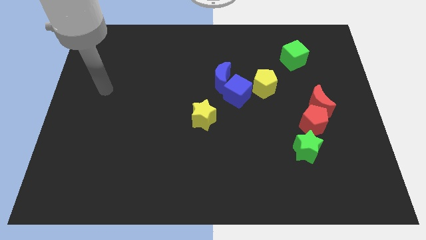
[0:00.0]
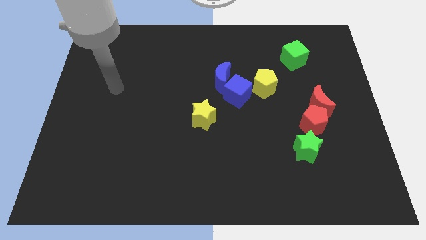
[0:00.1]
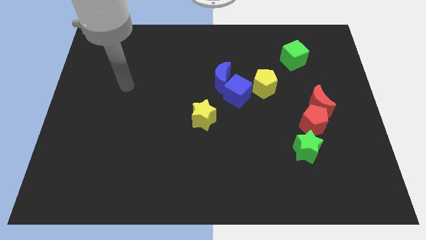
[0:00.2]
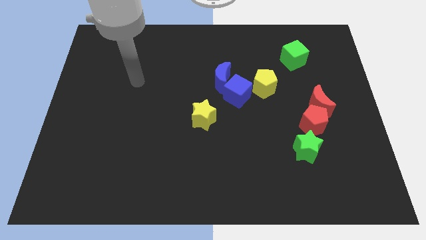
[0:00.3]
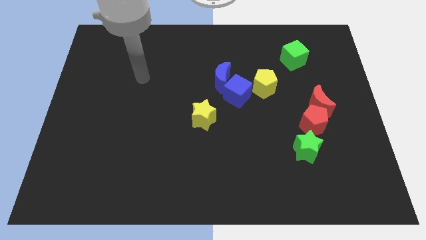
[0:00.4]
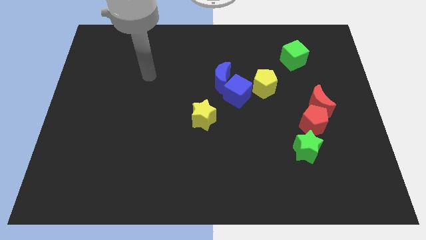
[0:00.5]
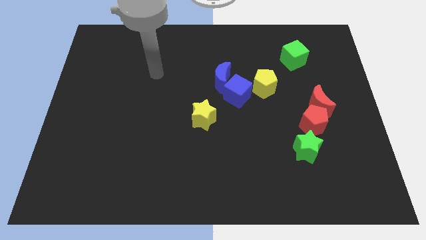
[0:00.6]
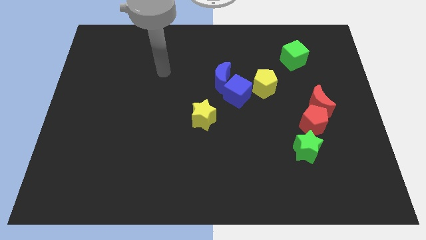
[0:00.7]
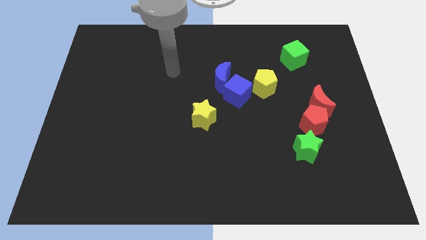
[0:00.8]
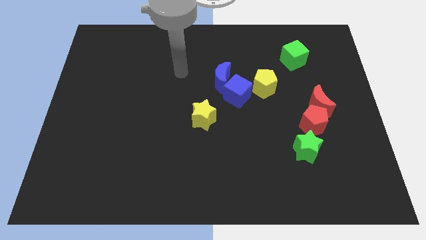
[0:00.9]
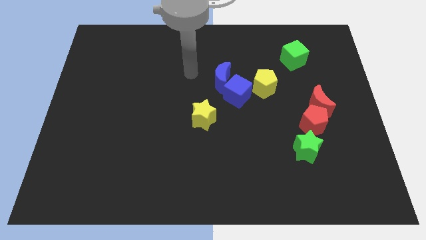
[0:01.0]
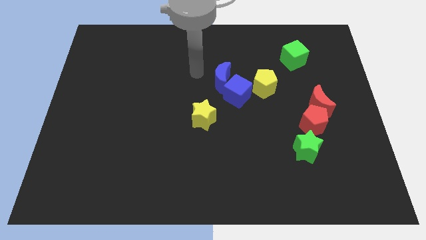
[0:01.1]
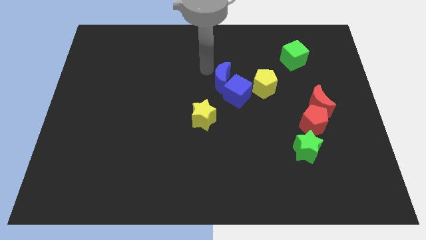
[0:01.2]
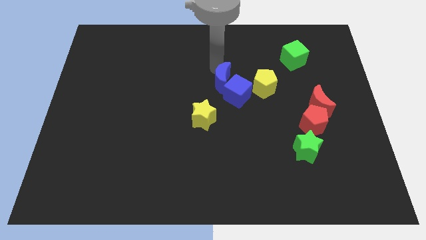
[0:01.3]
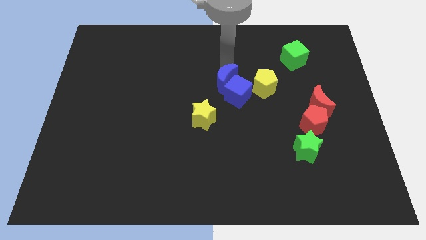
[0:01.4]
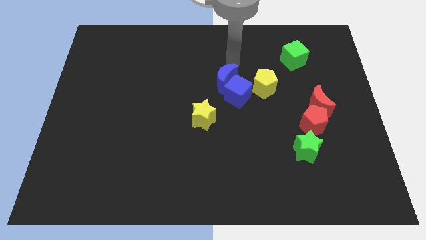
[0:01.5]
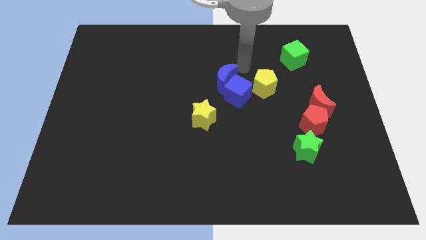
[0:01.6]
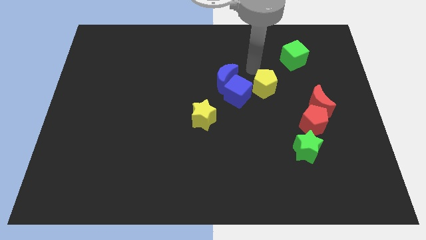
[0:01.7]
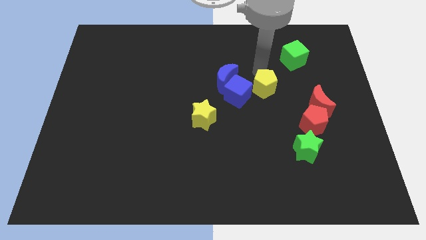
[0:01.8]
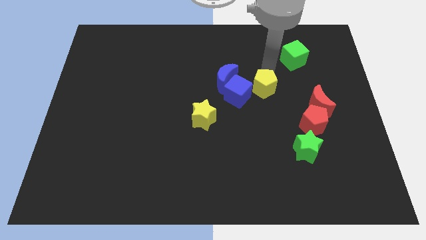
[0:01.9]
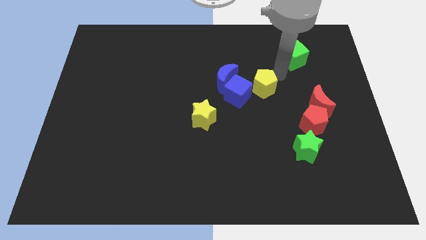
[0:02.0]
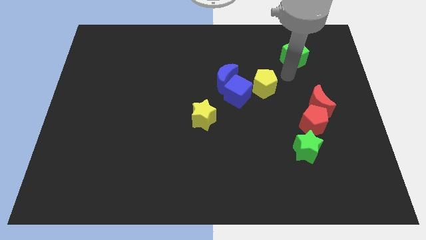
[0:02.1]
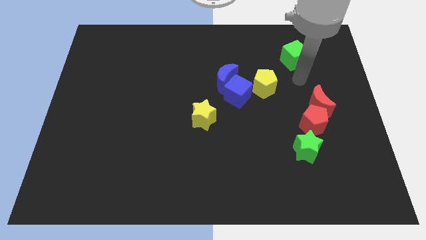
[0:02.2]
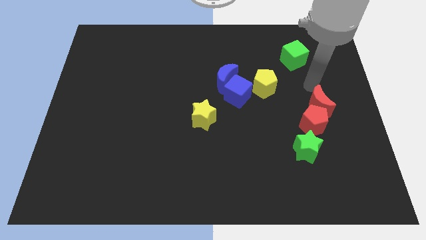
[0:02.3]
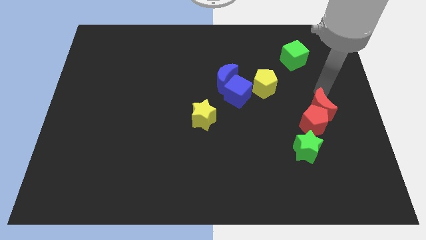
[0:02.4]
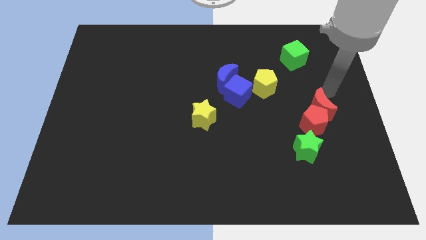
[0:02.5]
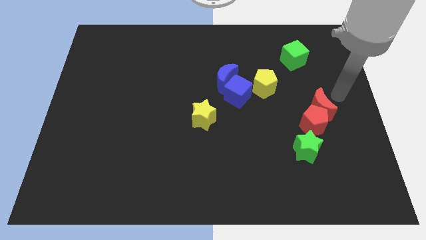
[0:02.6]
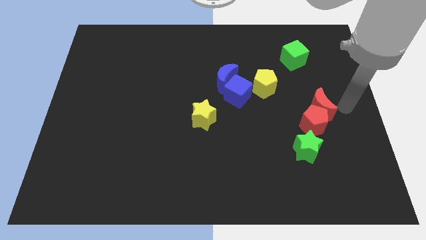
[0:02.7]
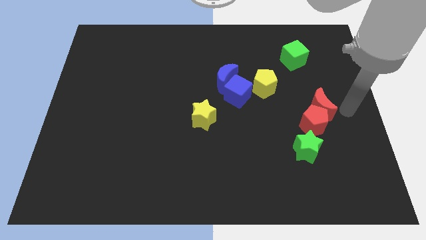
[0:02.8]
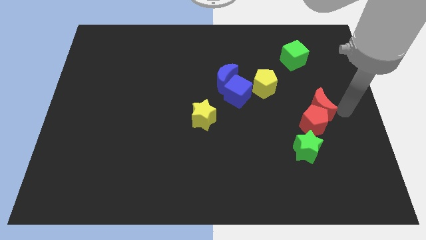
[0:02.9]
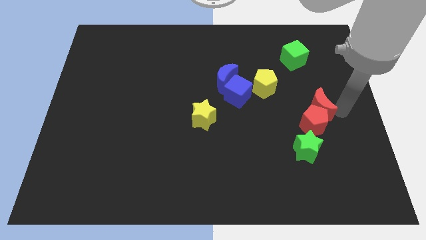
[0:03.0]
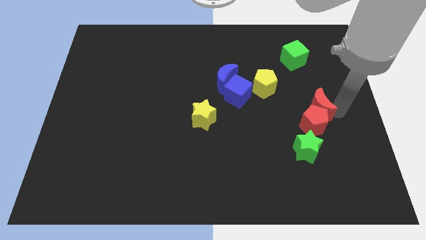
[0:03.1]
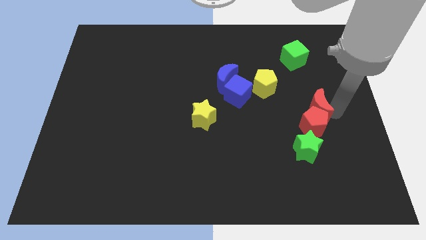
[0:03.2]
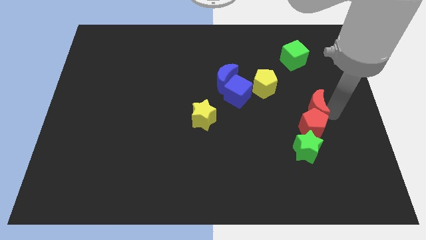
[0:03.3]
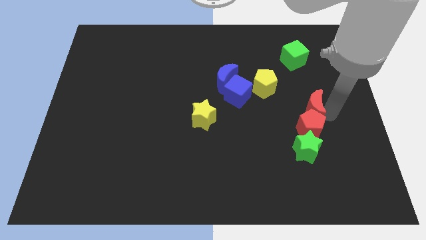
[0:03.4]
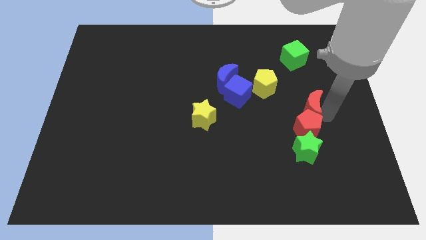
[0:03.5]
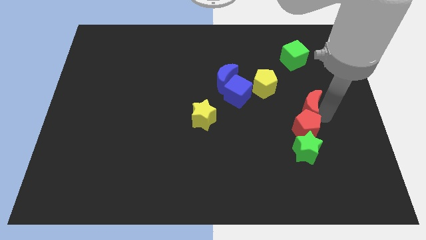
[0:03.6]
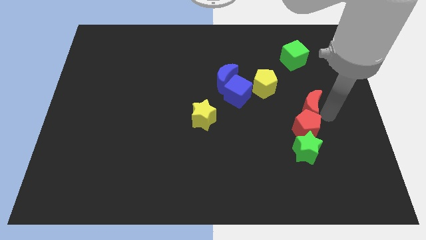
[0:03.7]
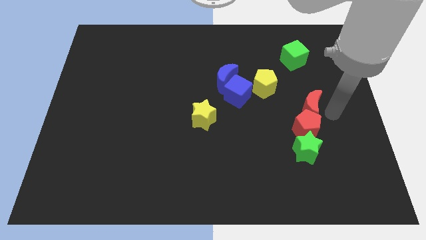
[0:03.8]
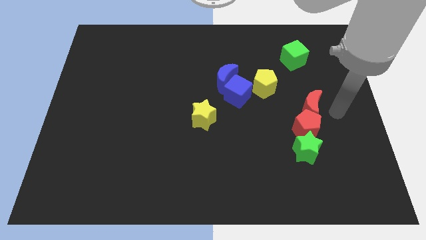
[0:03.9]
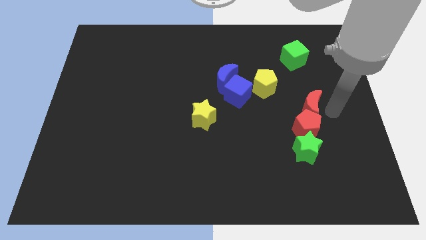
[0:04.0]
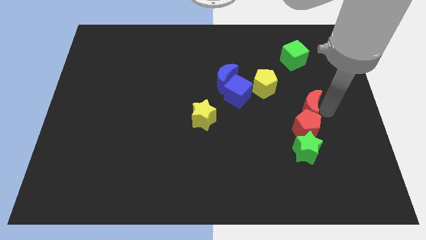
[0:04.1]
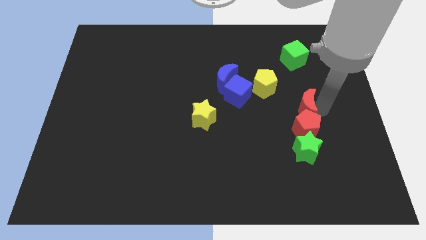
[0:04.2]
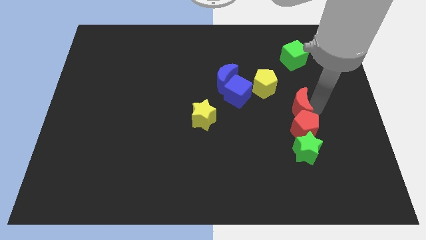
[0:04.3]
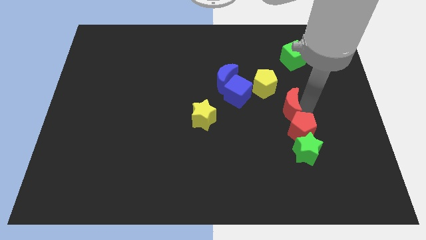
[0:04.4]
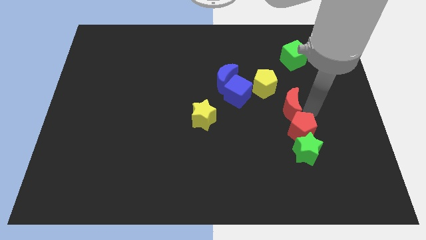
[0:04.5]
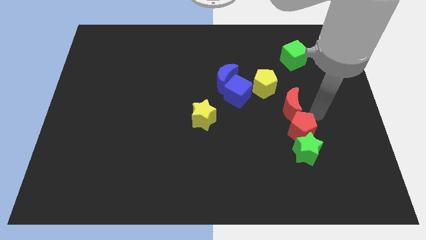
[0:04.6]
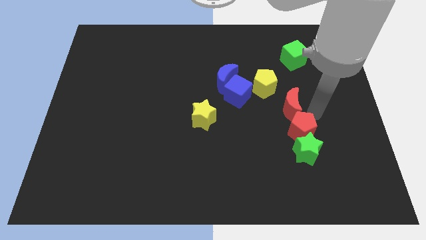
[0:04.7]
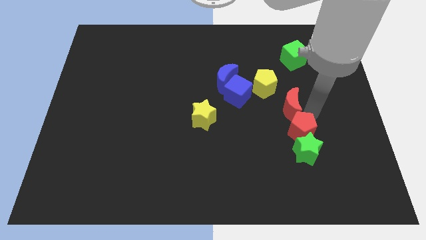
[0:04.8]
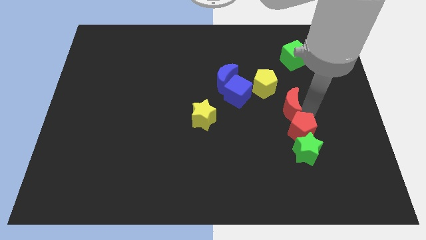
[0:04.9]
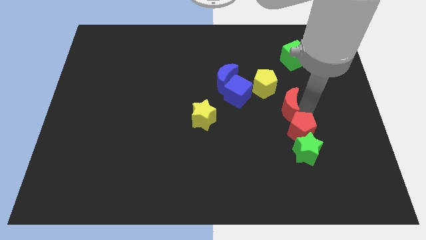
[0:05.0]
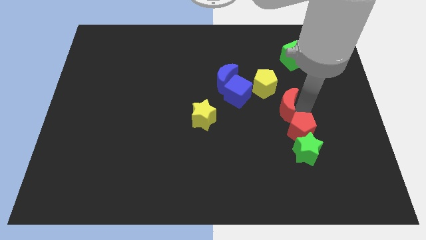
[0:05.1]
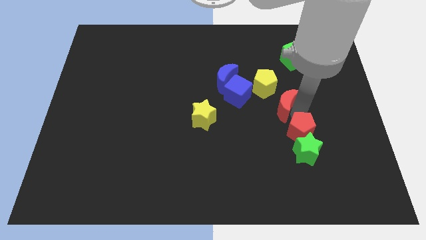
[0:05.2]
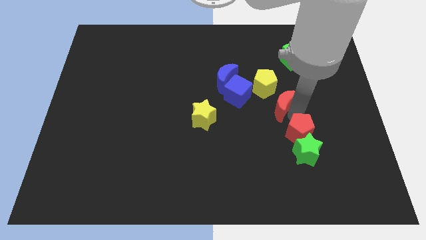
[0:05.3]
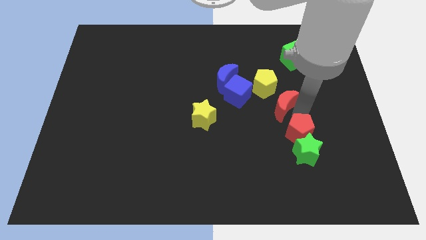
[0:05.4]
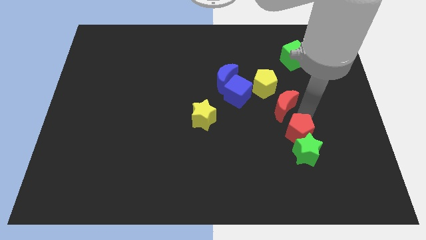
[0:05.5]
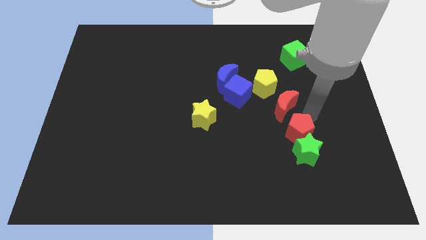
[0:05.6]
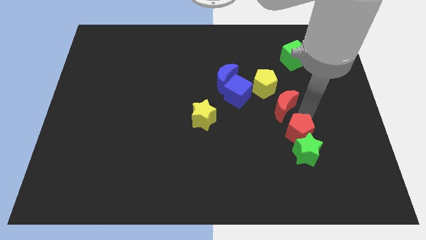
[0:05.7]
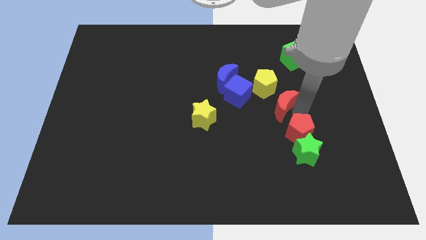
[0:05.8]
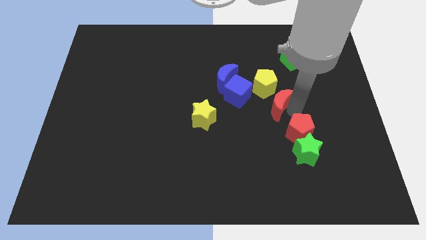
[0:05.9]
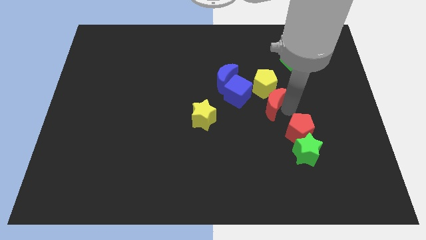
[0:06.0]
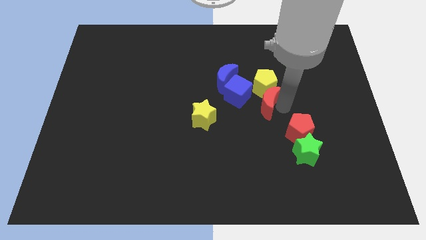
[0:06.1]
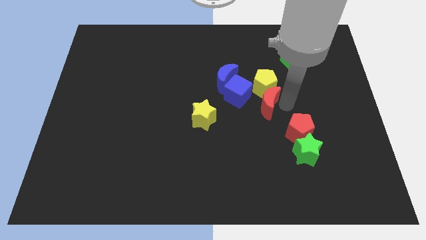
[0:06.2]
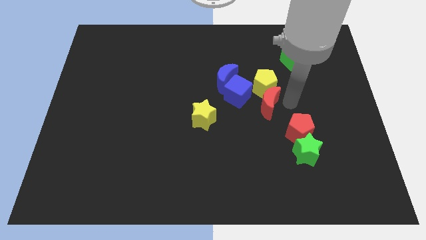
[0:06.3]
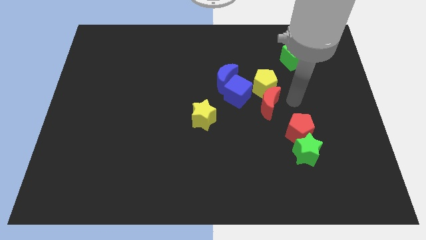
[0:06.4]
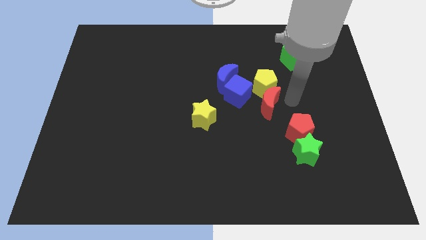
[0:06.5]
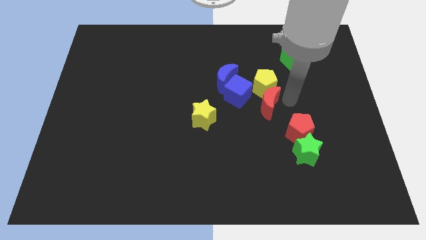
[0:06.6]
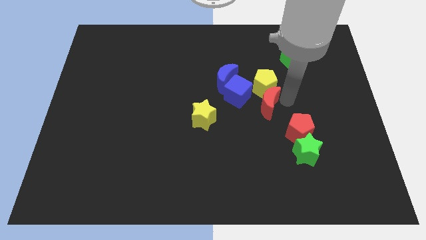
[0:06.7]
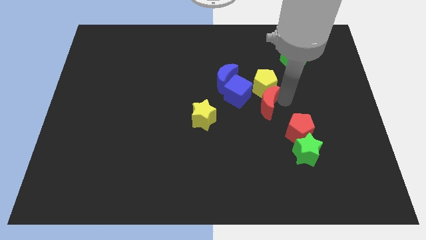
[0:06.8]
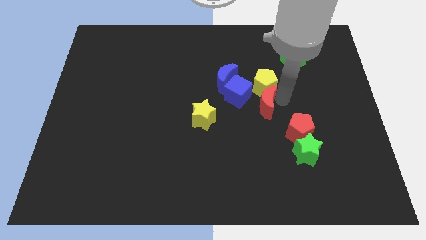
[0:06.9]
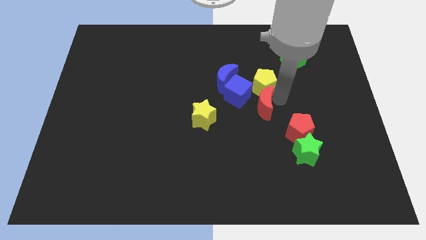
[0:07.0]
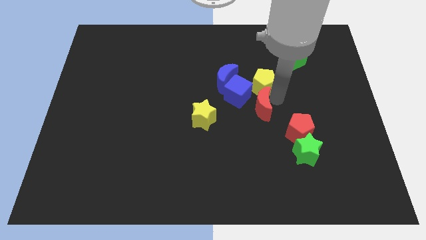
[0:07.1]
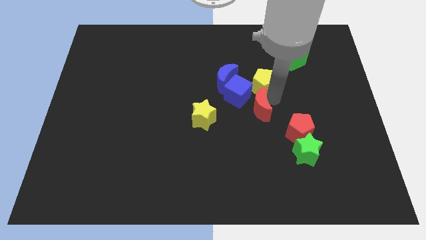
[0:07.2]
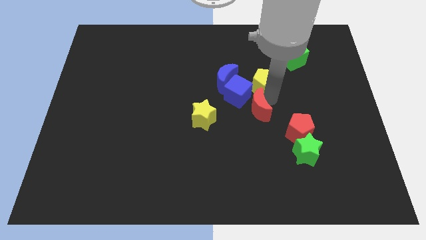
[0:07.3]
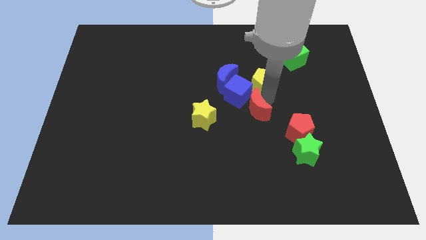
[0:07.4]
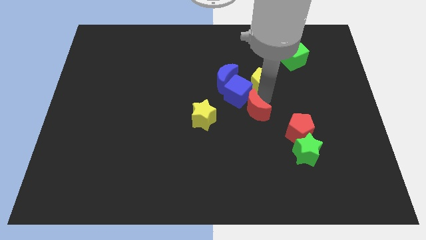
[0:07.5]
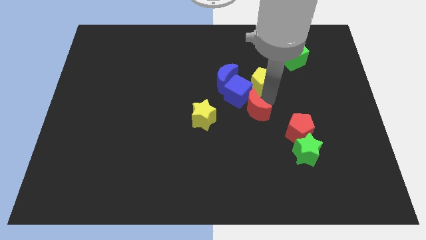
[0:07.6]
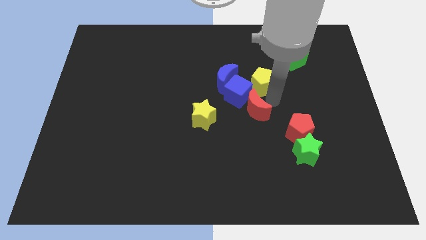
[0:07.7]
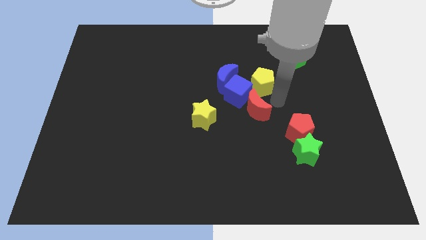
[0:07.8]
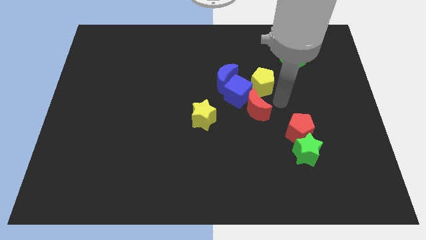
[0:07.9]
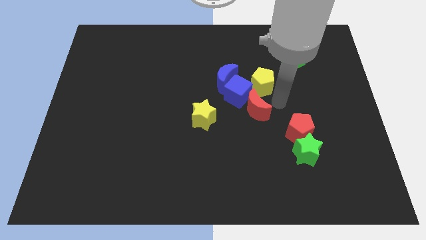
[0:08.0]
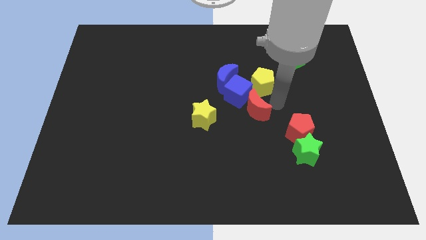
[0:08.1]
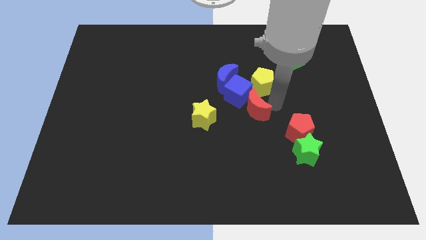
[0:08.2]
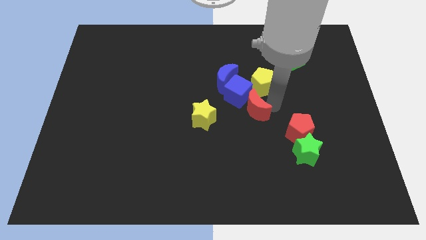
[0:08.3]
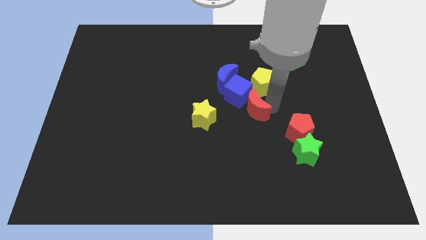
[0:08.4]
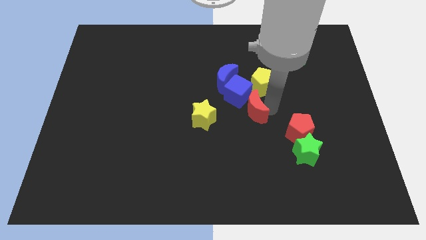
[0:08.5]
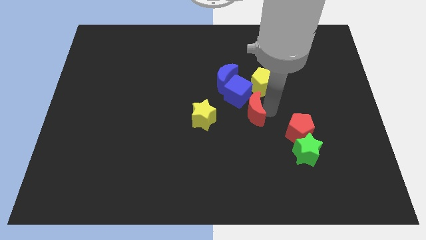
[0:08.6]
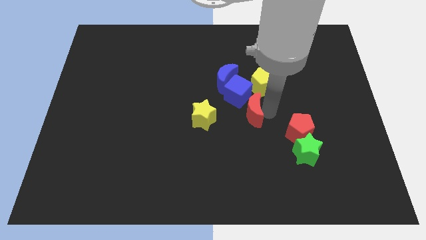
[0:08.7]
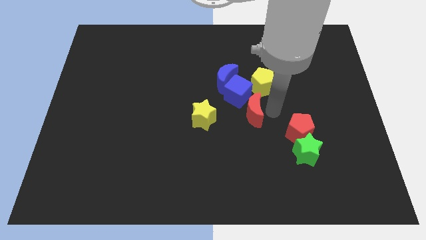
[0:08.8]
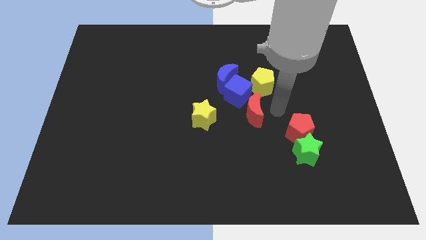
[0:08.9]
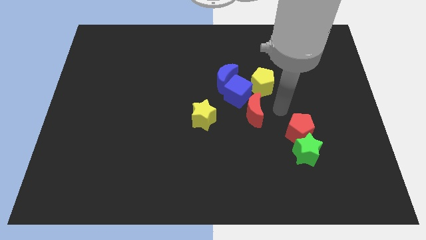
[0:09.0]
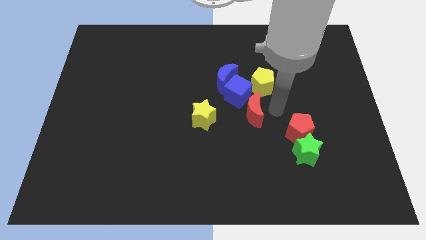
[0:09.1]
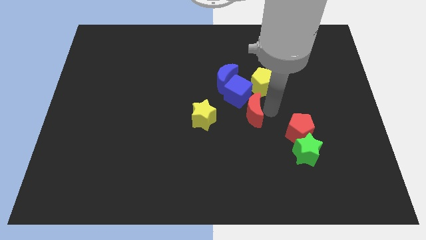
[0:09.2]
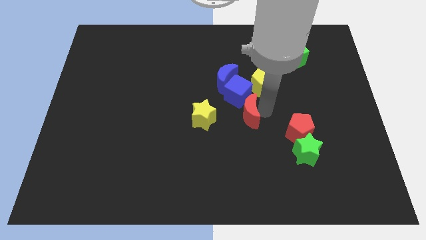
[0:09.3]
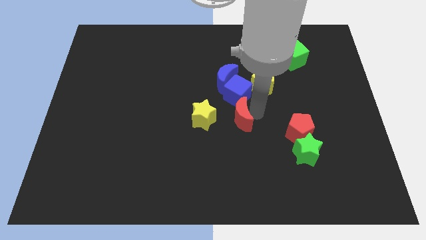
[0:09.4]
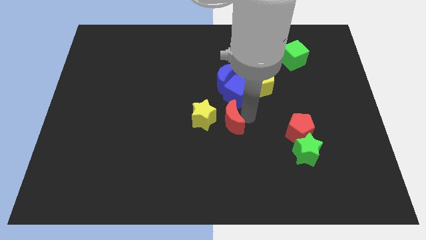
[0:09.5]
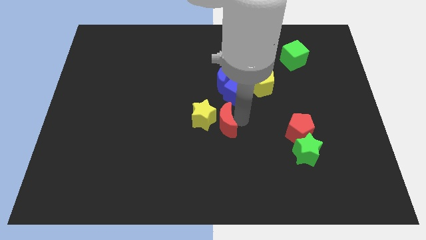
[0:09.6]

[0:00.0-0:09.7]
push the red moon close to the yellow star
